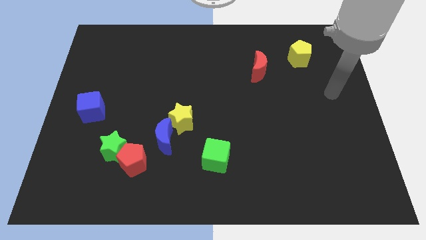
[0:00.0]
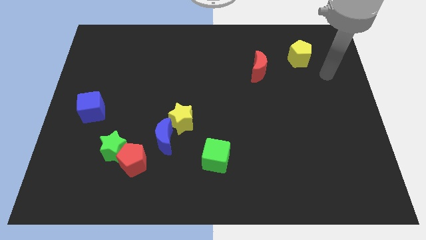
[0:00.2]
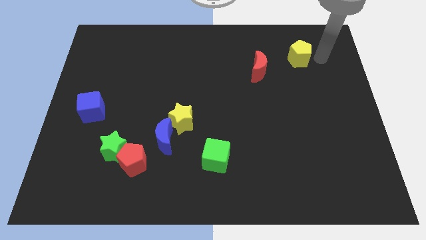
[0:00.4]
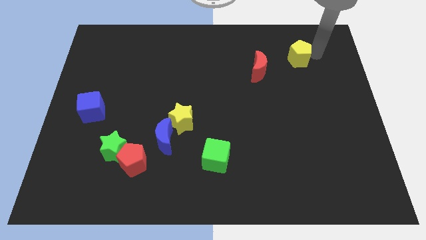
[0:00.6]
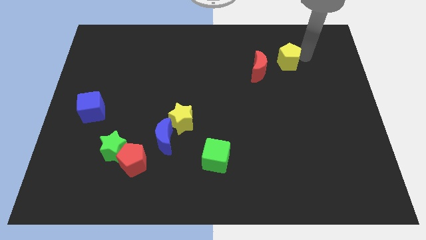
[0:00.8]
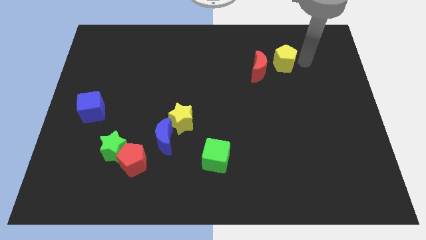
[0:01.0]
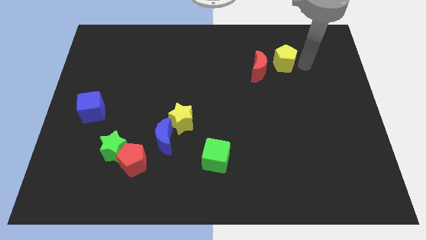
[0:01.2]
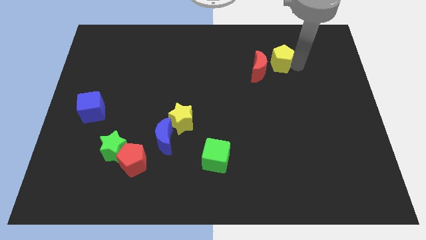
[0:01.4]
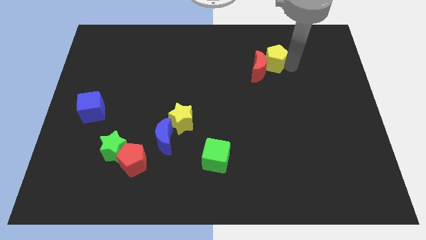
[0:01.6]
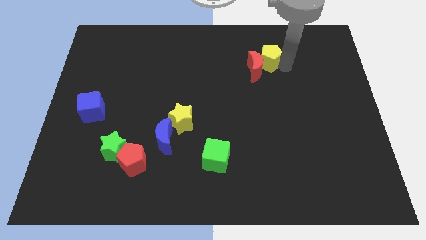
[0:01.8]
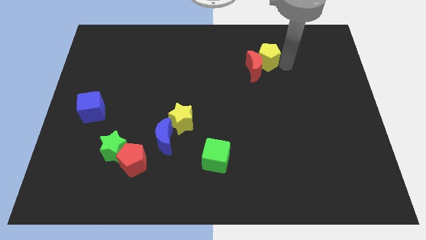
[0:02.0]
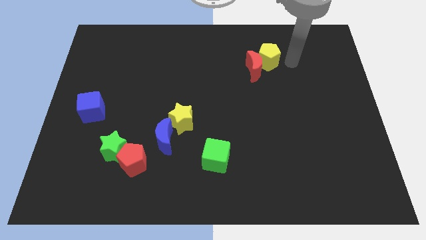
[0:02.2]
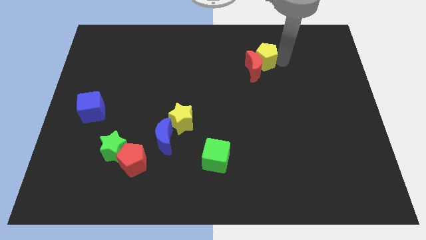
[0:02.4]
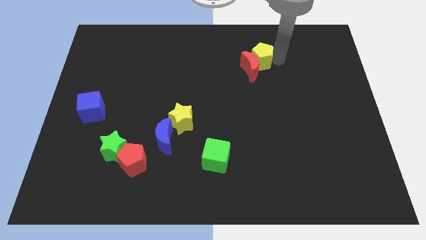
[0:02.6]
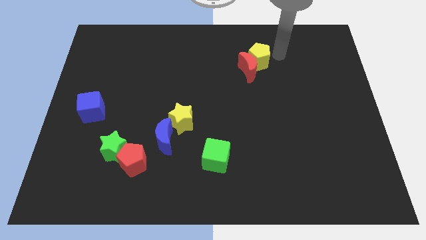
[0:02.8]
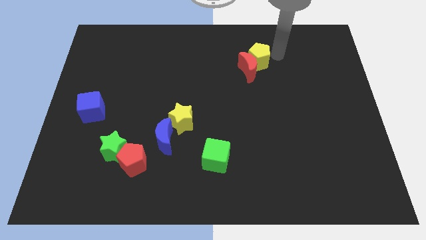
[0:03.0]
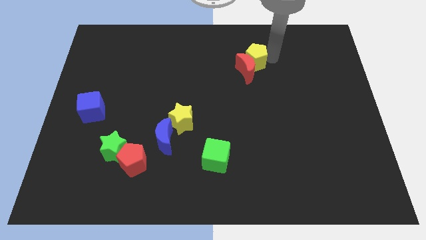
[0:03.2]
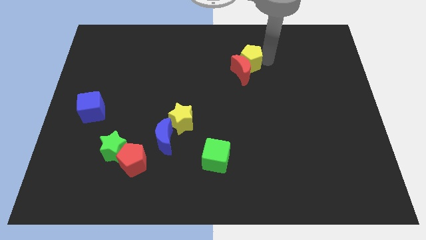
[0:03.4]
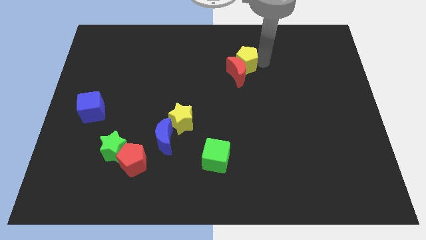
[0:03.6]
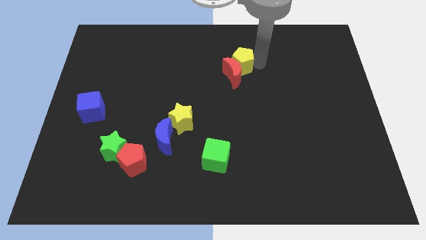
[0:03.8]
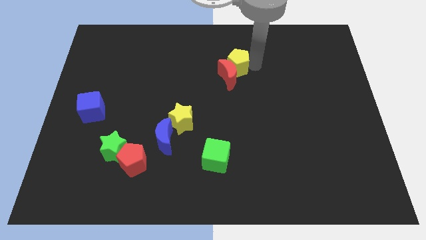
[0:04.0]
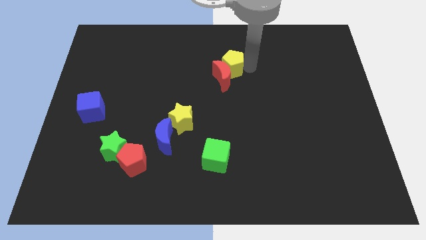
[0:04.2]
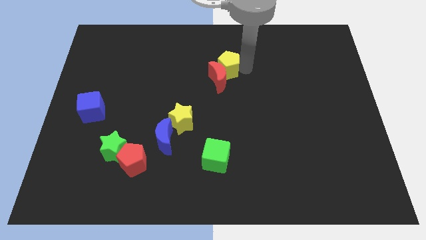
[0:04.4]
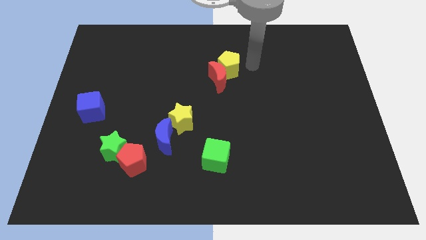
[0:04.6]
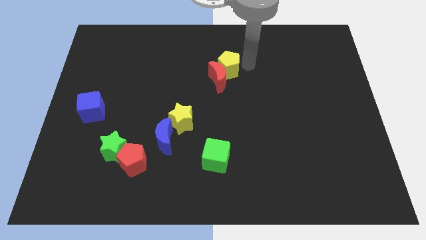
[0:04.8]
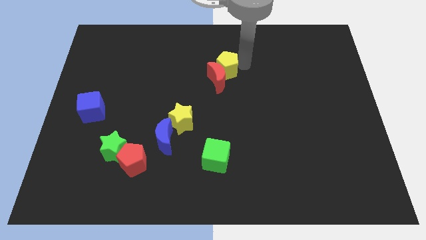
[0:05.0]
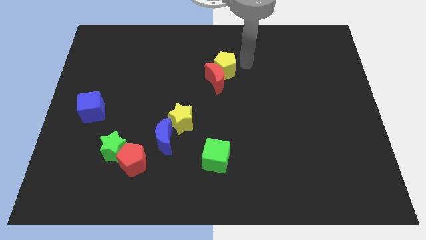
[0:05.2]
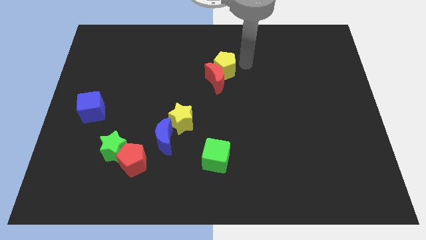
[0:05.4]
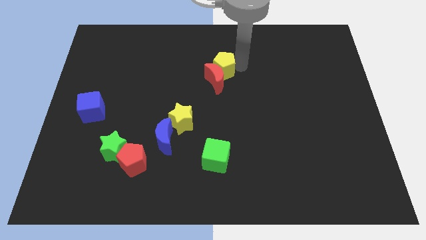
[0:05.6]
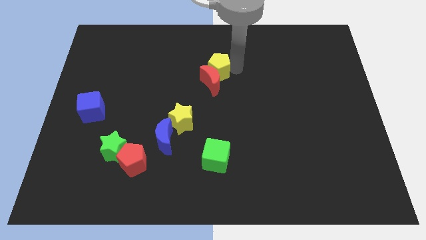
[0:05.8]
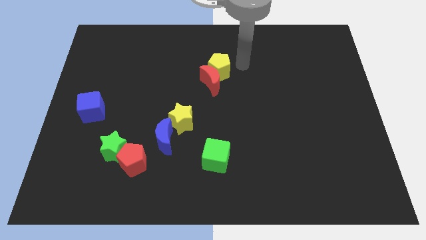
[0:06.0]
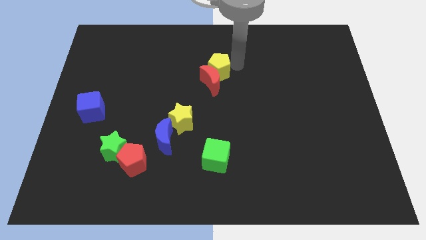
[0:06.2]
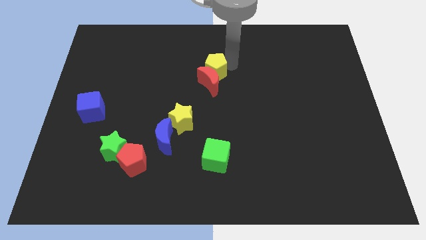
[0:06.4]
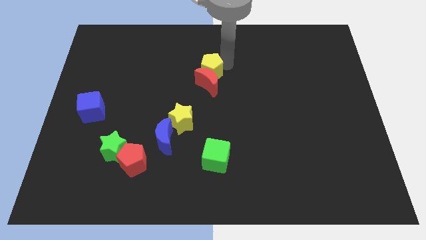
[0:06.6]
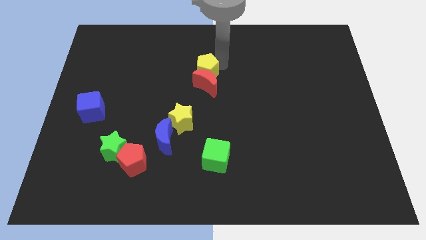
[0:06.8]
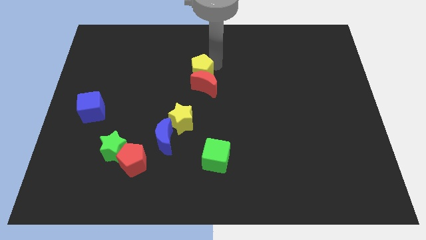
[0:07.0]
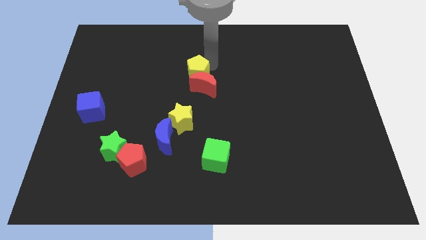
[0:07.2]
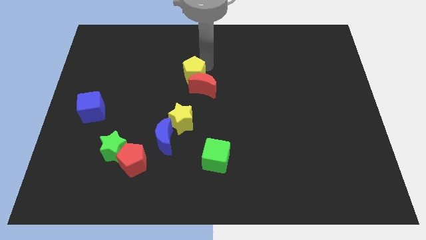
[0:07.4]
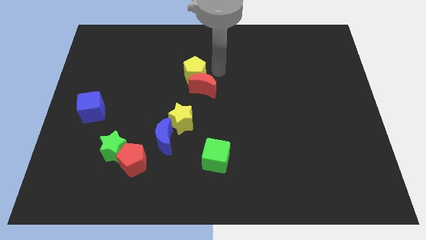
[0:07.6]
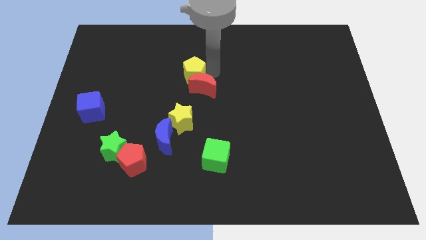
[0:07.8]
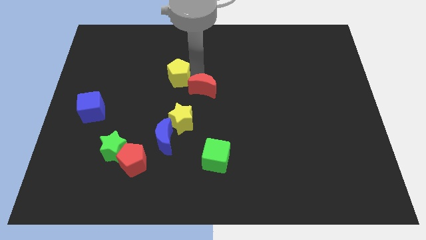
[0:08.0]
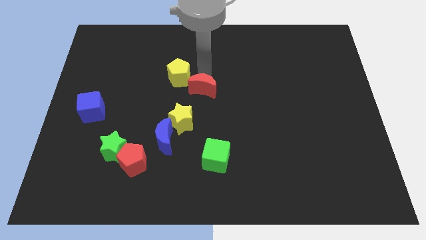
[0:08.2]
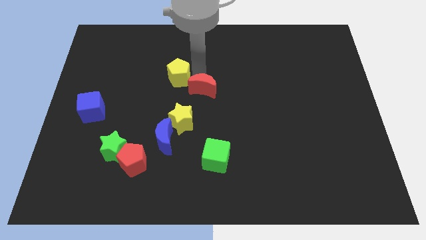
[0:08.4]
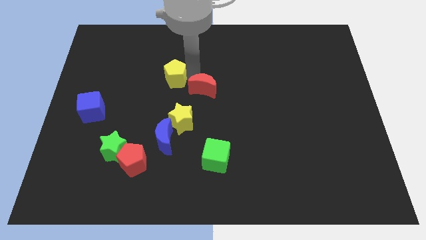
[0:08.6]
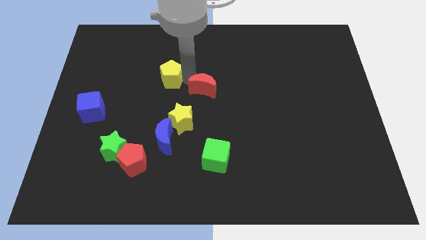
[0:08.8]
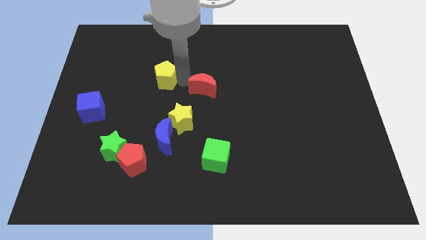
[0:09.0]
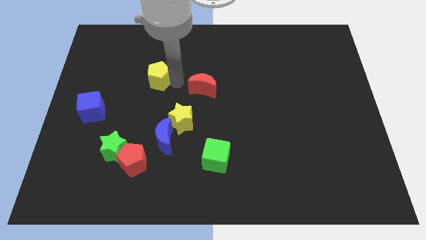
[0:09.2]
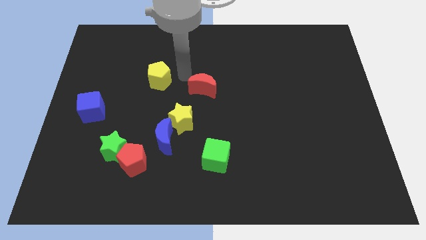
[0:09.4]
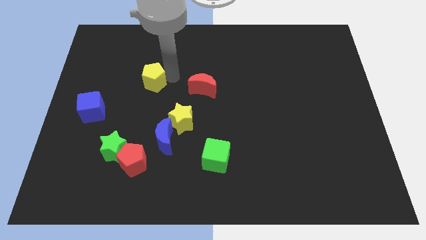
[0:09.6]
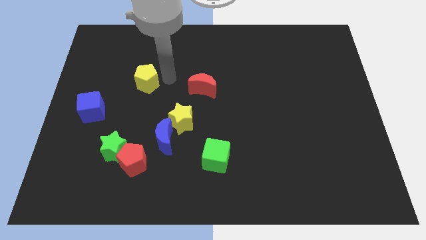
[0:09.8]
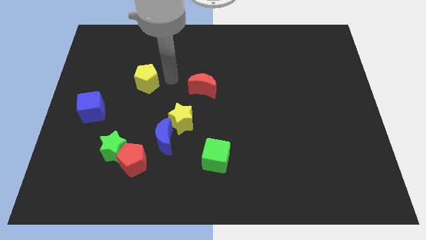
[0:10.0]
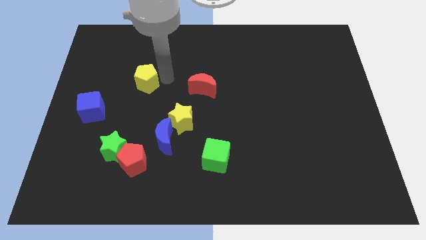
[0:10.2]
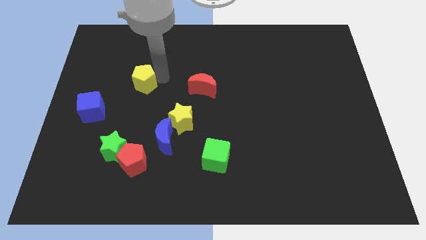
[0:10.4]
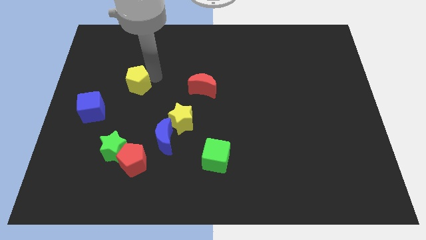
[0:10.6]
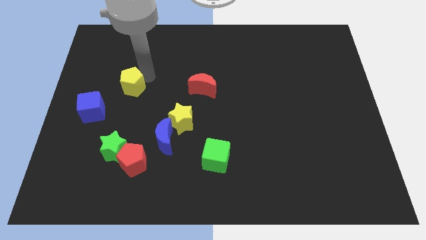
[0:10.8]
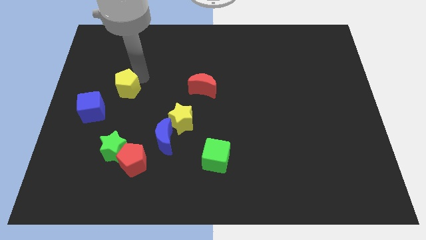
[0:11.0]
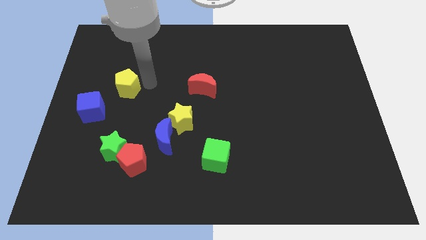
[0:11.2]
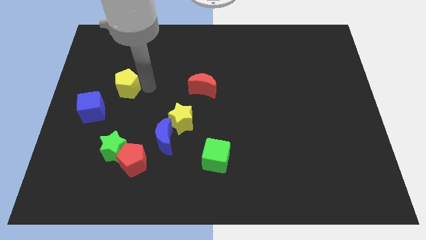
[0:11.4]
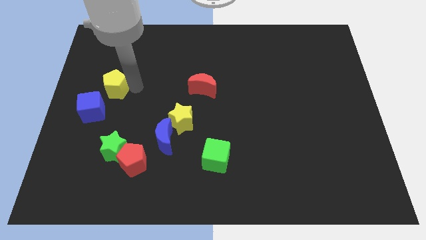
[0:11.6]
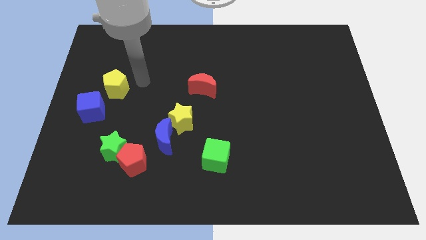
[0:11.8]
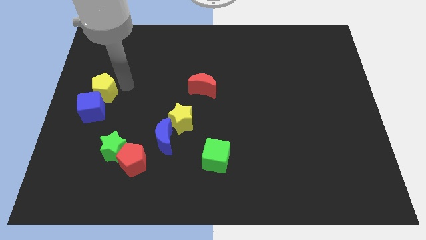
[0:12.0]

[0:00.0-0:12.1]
slide the yellow pentagon to the center left

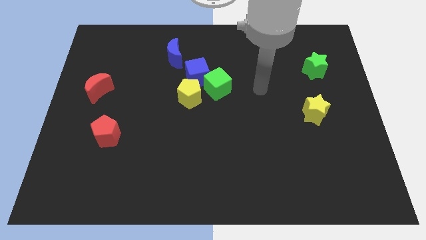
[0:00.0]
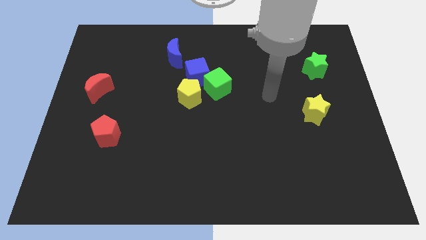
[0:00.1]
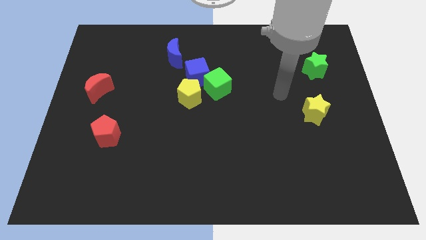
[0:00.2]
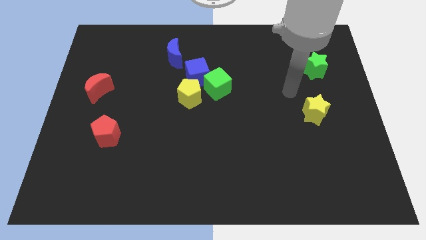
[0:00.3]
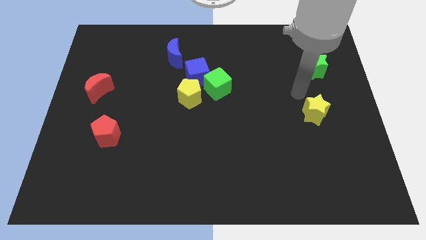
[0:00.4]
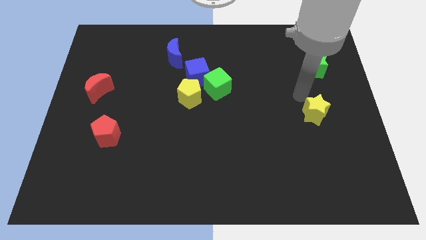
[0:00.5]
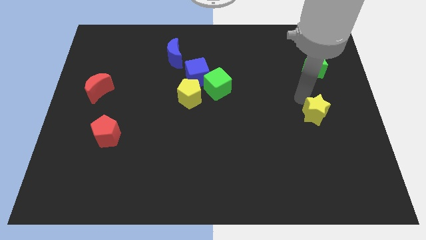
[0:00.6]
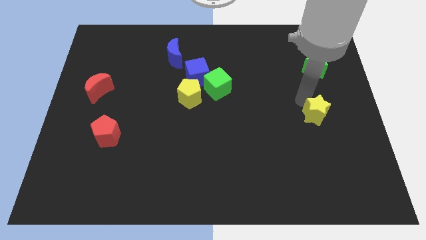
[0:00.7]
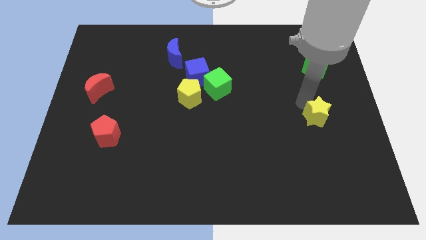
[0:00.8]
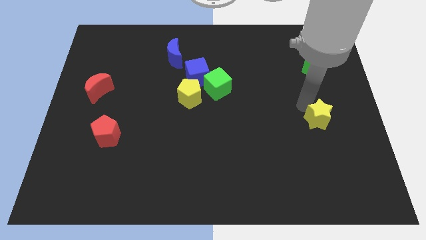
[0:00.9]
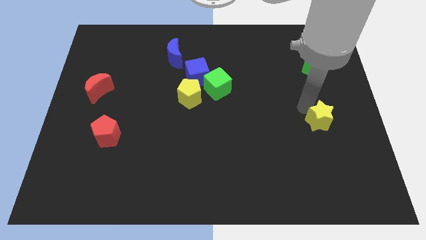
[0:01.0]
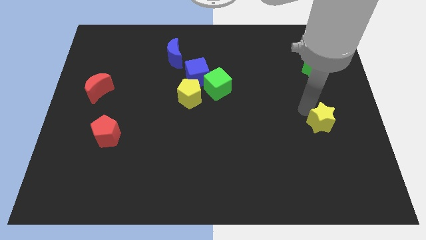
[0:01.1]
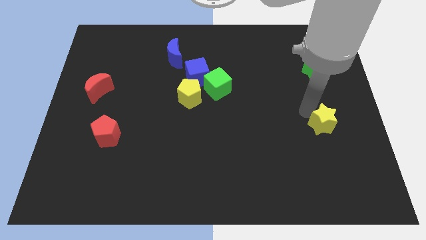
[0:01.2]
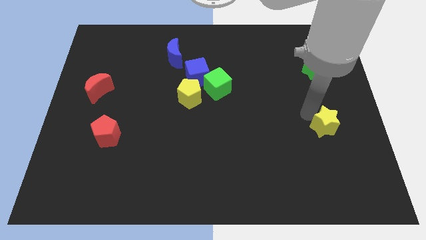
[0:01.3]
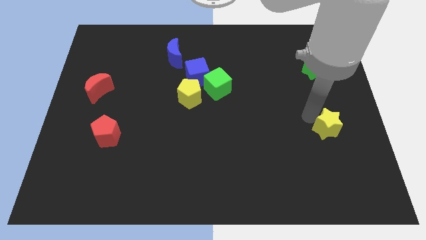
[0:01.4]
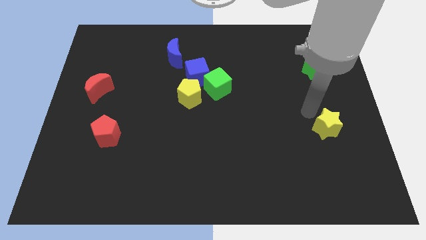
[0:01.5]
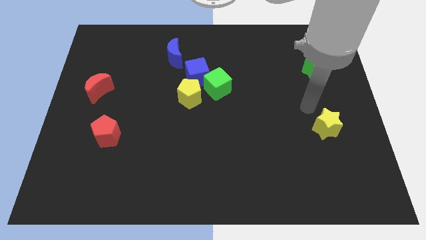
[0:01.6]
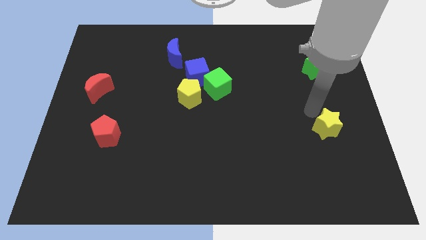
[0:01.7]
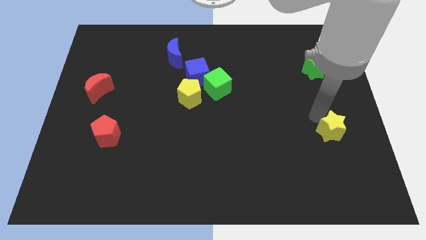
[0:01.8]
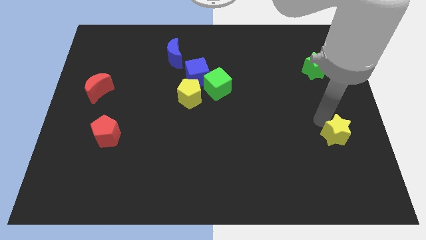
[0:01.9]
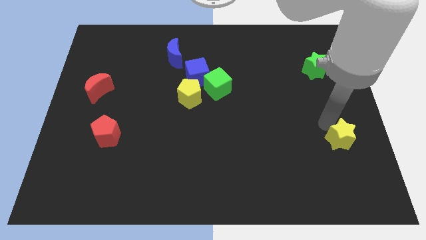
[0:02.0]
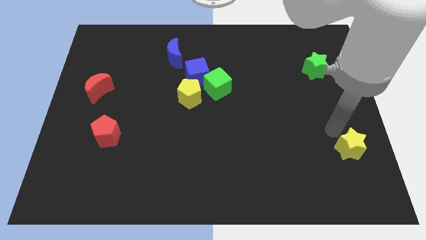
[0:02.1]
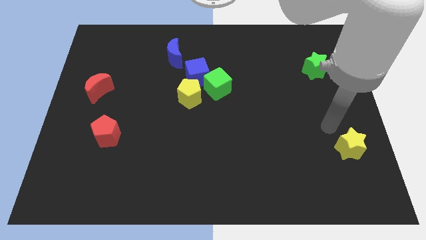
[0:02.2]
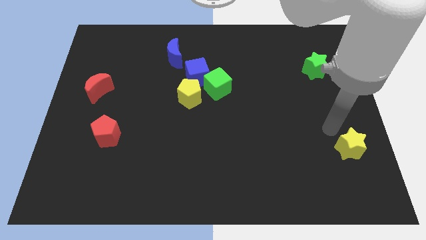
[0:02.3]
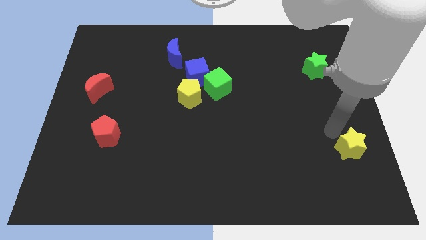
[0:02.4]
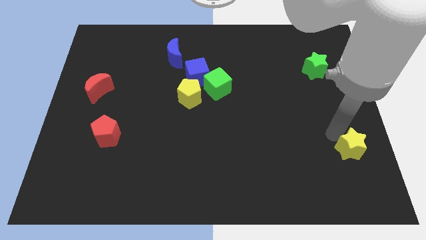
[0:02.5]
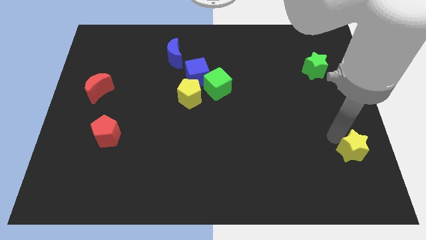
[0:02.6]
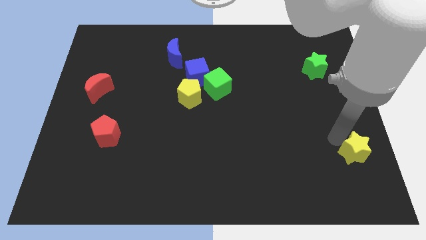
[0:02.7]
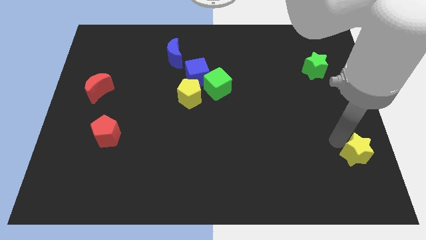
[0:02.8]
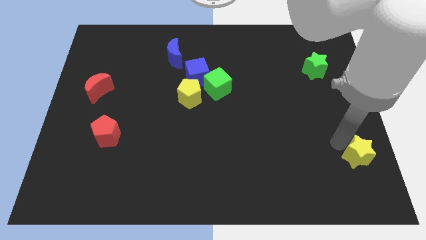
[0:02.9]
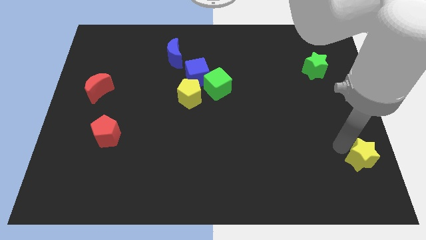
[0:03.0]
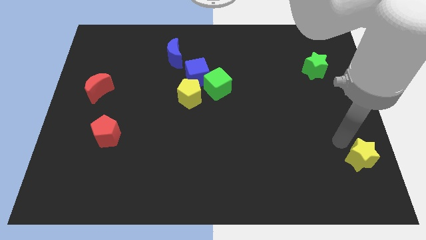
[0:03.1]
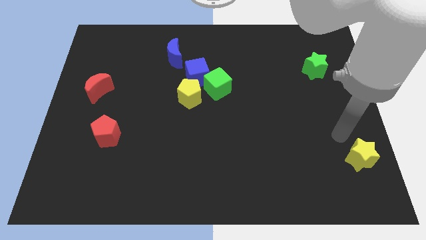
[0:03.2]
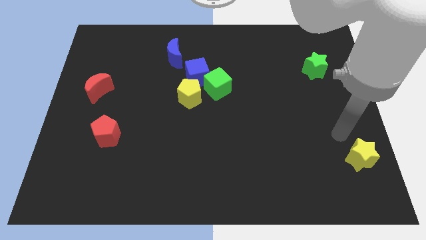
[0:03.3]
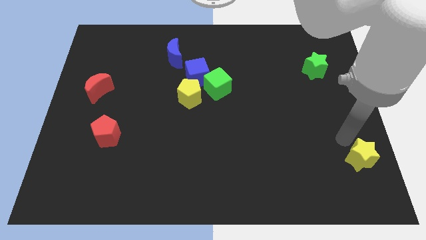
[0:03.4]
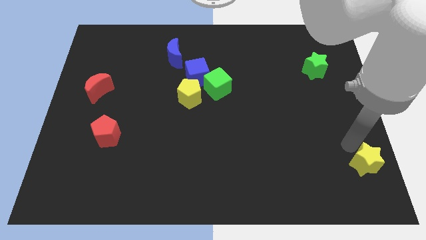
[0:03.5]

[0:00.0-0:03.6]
put the yellow star to the bottom right corner
